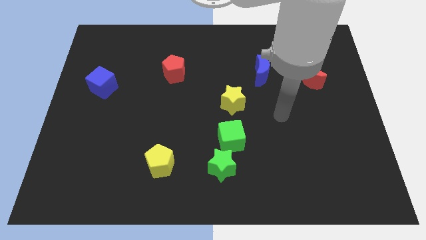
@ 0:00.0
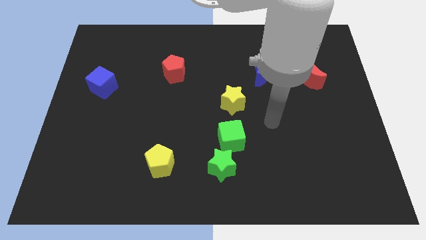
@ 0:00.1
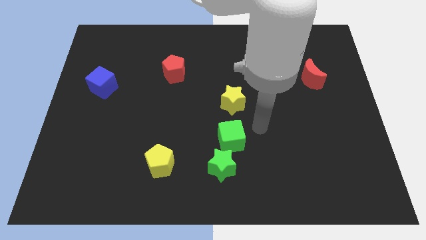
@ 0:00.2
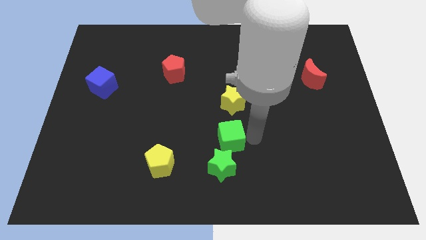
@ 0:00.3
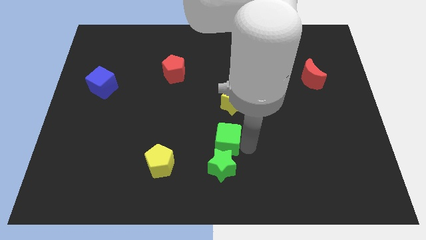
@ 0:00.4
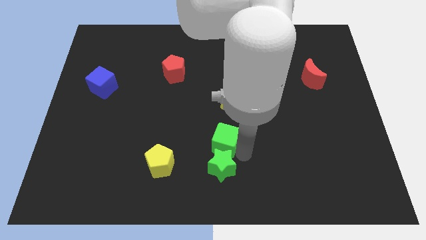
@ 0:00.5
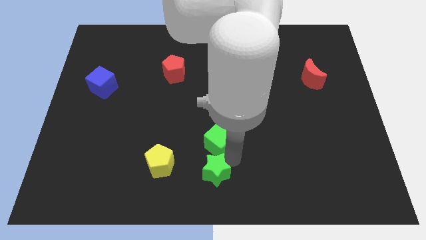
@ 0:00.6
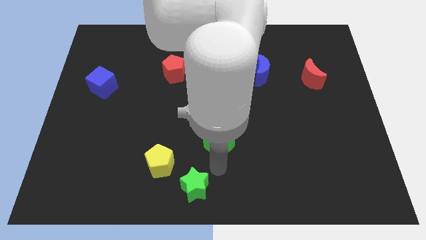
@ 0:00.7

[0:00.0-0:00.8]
move the green cube away from the green star

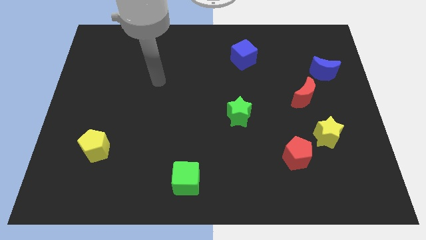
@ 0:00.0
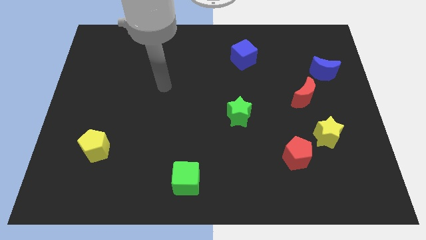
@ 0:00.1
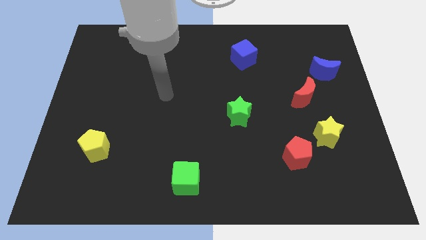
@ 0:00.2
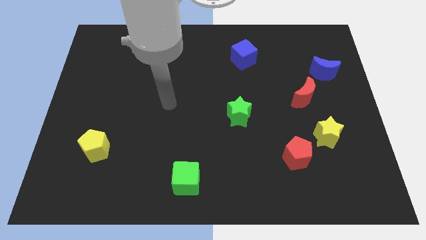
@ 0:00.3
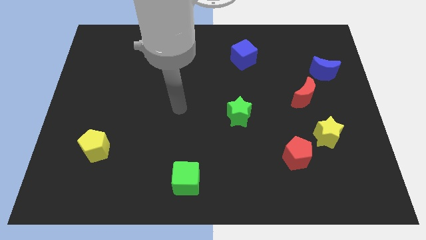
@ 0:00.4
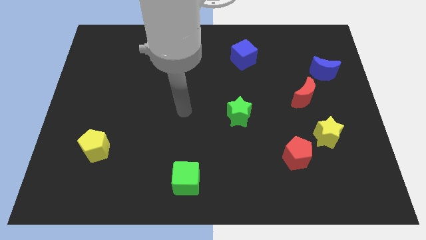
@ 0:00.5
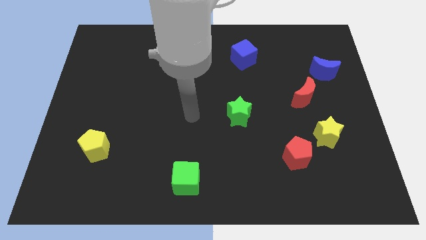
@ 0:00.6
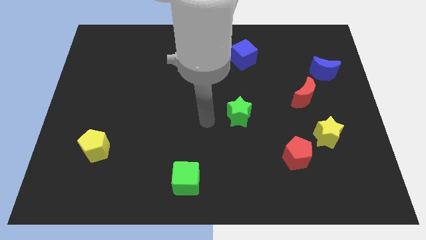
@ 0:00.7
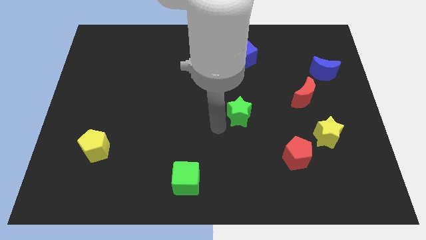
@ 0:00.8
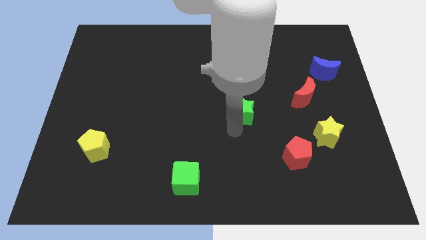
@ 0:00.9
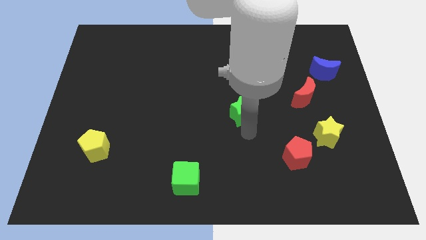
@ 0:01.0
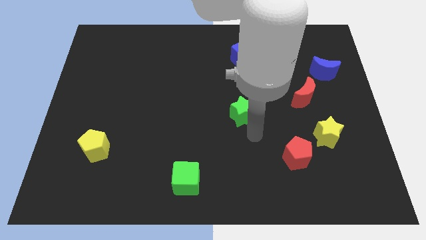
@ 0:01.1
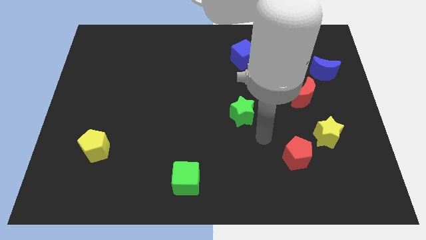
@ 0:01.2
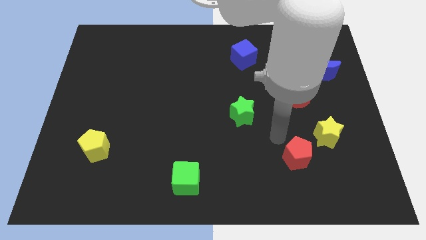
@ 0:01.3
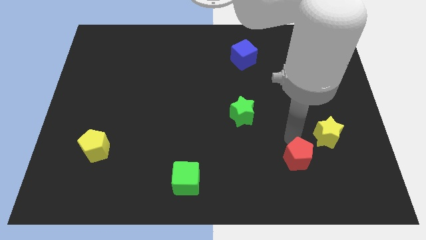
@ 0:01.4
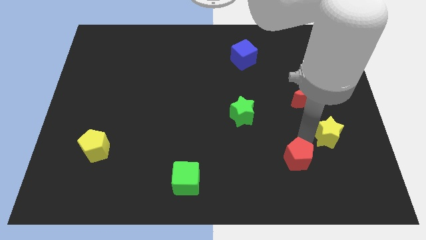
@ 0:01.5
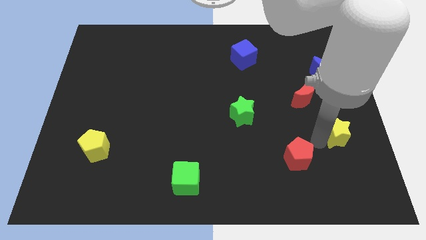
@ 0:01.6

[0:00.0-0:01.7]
pull the red pentagon apart from the yellow star

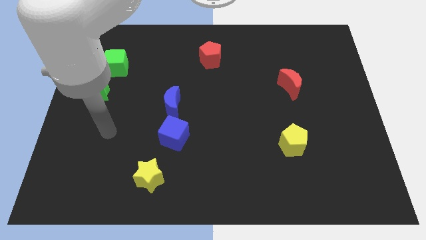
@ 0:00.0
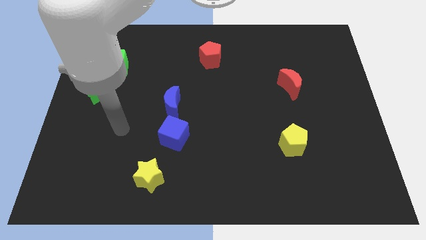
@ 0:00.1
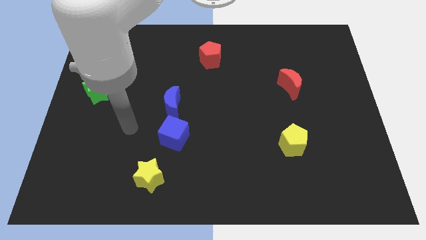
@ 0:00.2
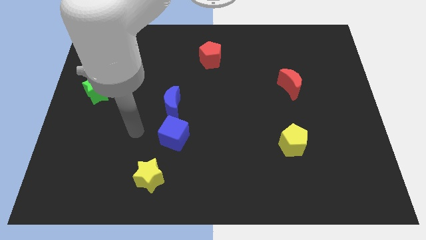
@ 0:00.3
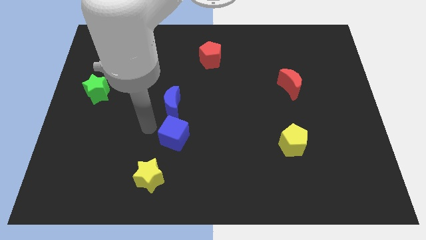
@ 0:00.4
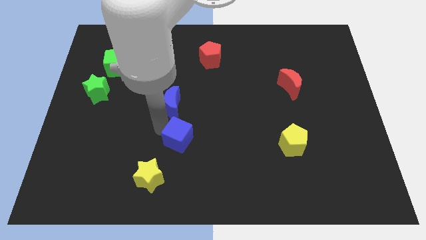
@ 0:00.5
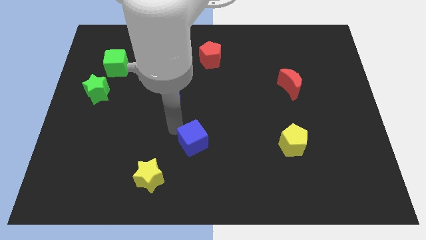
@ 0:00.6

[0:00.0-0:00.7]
separate the blue moon from the blue cube

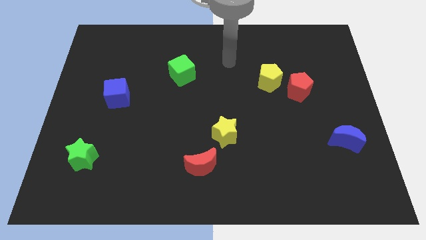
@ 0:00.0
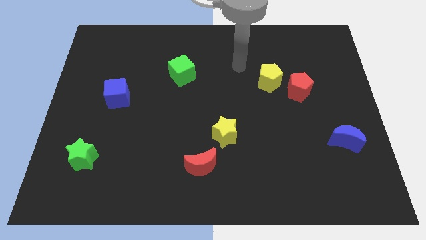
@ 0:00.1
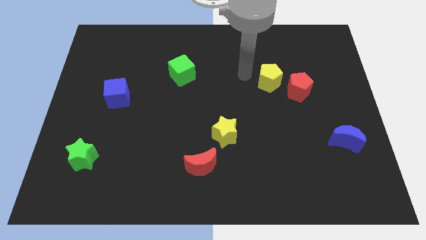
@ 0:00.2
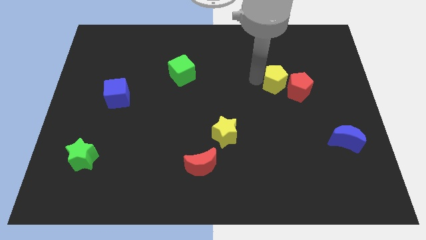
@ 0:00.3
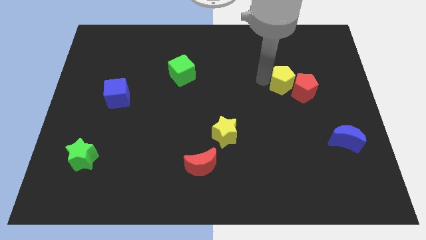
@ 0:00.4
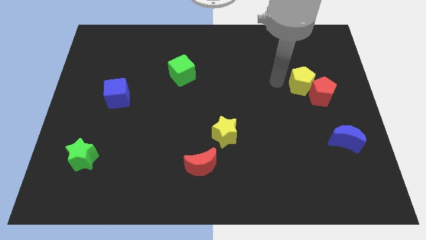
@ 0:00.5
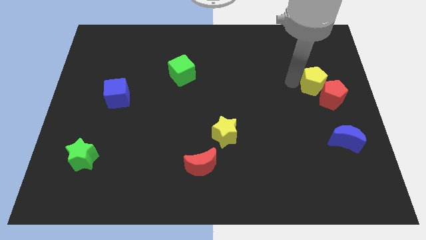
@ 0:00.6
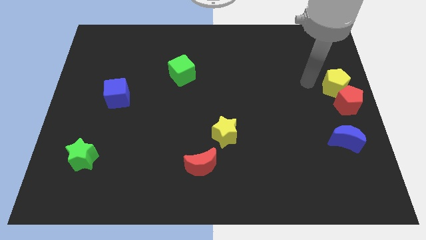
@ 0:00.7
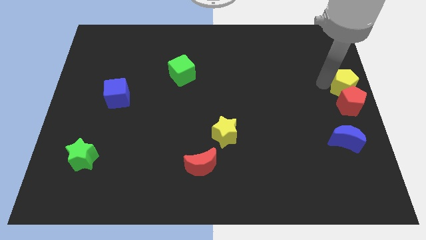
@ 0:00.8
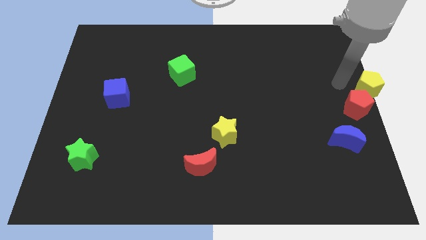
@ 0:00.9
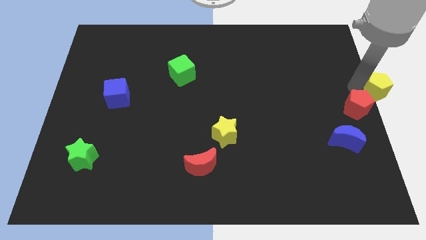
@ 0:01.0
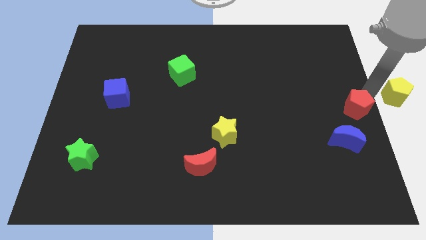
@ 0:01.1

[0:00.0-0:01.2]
move the red pentagon away from the yellow pentagon

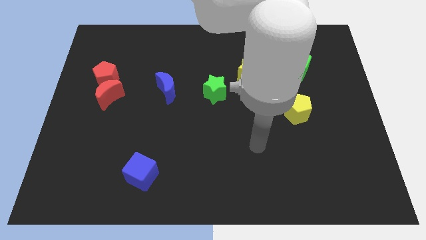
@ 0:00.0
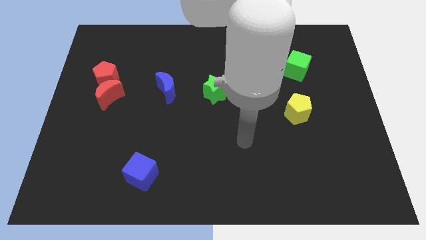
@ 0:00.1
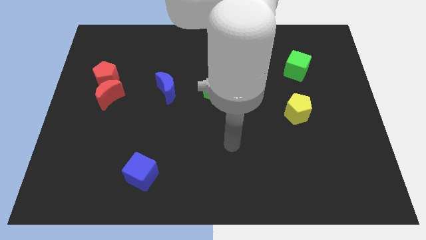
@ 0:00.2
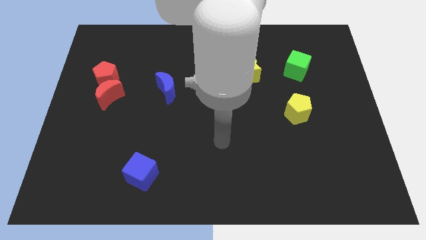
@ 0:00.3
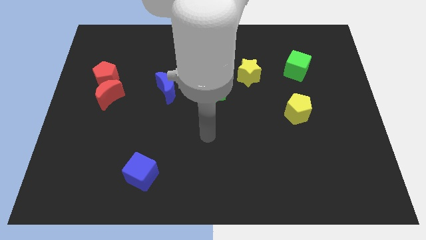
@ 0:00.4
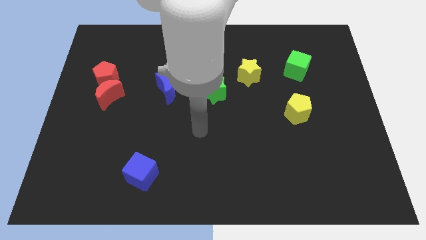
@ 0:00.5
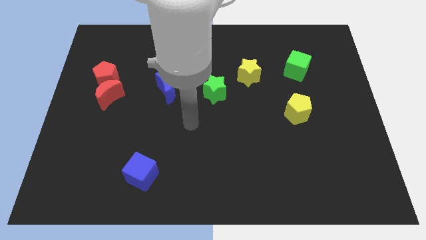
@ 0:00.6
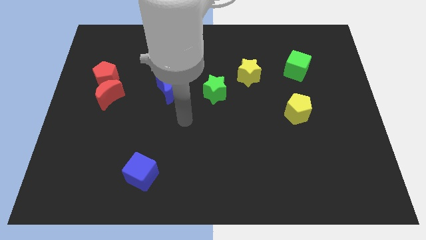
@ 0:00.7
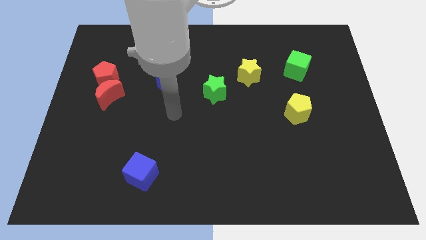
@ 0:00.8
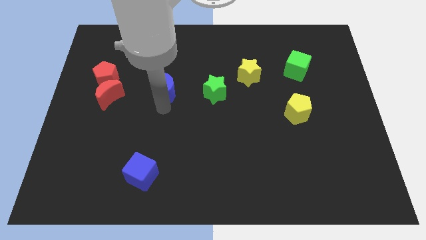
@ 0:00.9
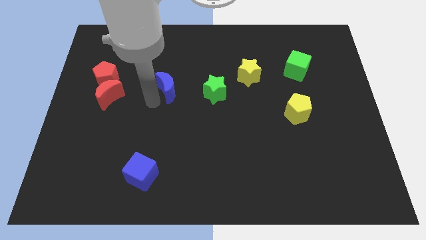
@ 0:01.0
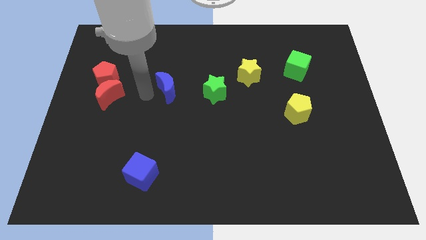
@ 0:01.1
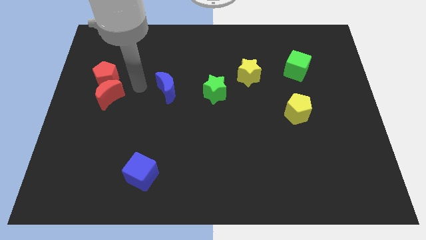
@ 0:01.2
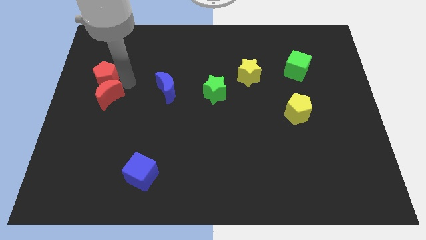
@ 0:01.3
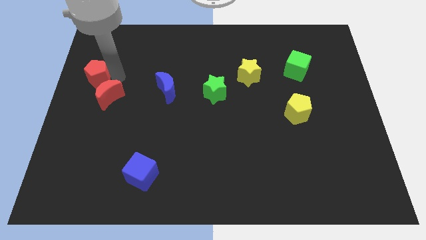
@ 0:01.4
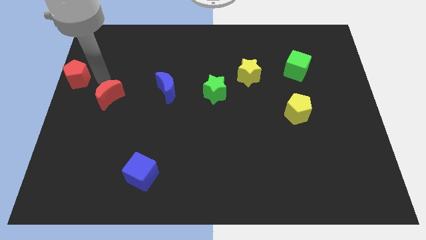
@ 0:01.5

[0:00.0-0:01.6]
pull the red moon apart from the red pentagon

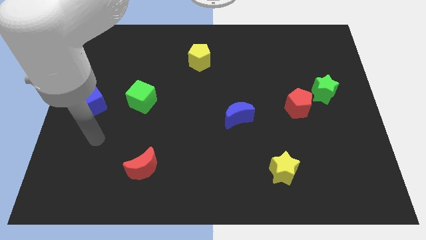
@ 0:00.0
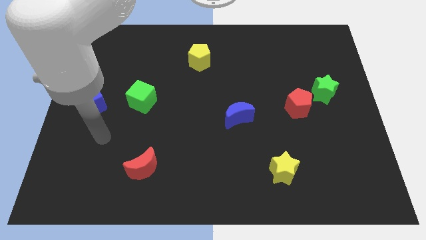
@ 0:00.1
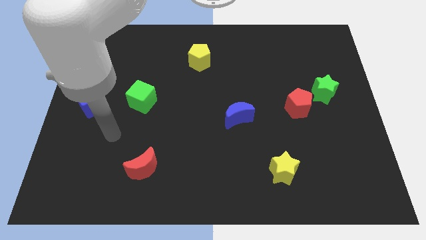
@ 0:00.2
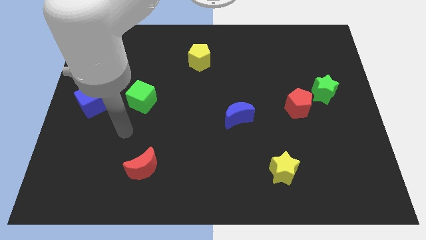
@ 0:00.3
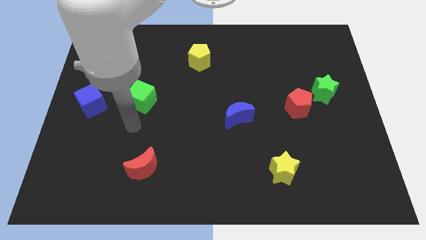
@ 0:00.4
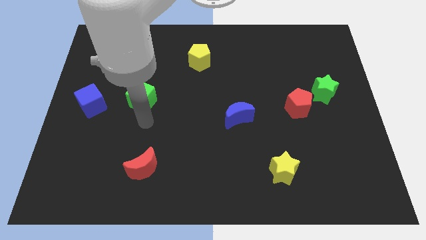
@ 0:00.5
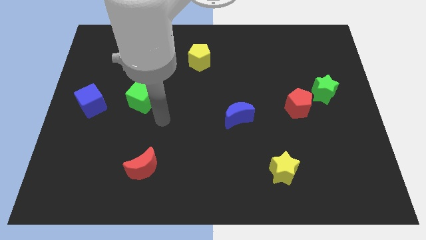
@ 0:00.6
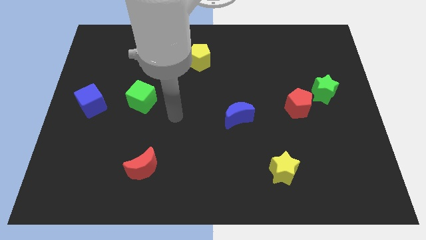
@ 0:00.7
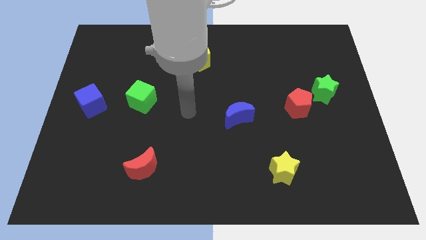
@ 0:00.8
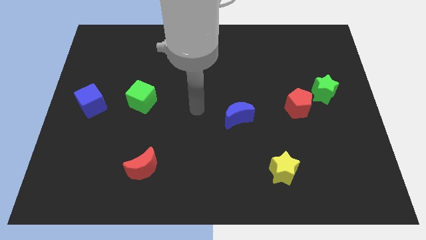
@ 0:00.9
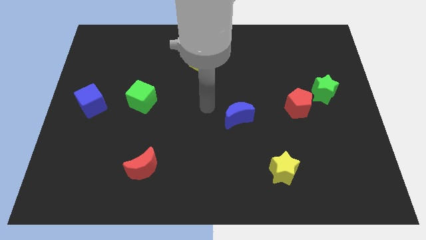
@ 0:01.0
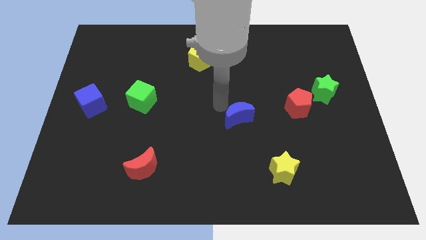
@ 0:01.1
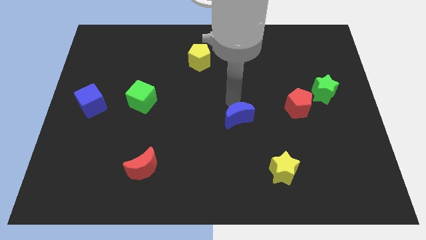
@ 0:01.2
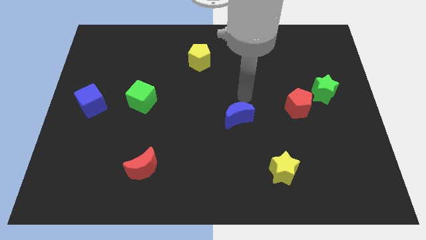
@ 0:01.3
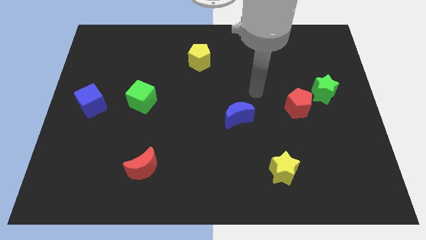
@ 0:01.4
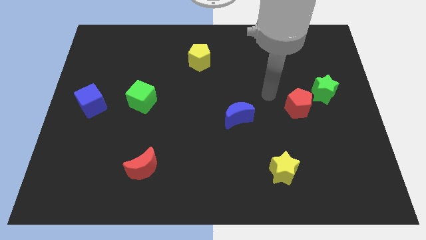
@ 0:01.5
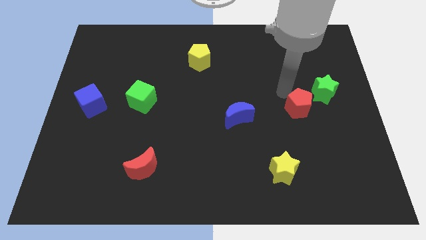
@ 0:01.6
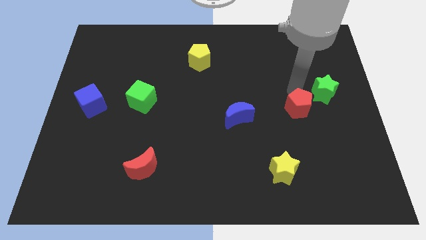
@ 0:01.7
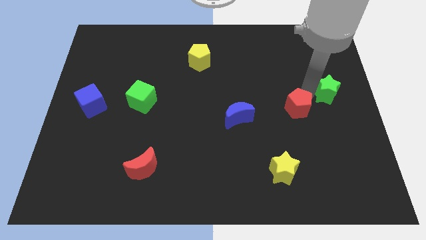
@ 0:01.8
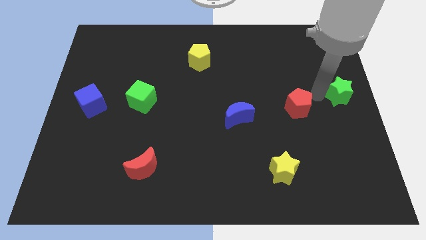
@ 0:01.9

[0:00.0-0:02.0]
separate the red pentagon from the green star

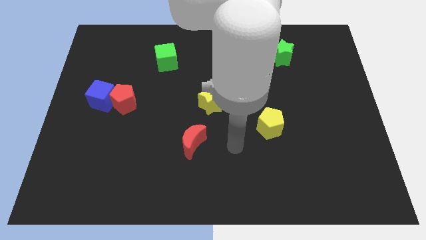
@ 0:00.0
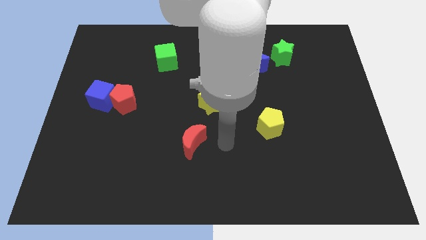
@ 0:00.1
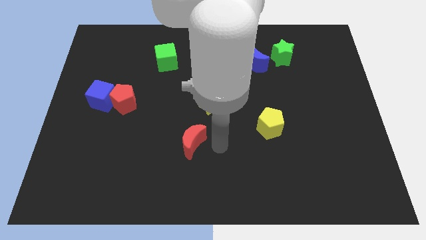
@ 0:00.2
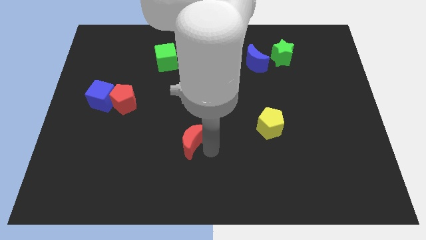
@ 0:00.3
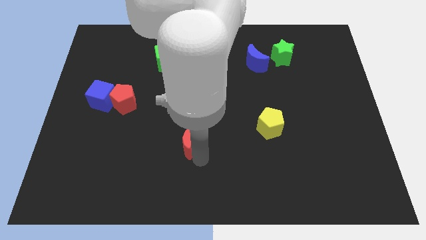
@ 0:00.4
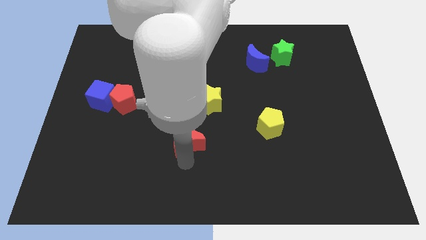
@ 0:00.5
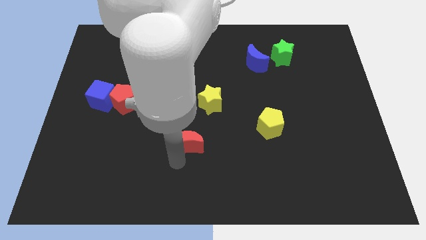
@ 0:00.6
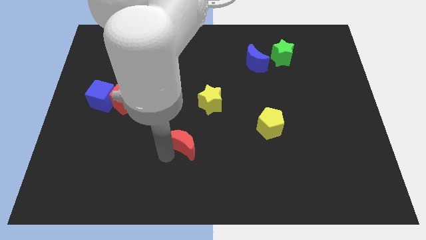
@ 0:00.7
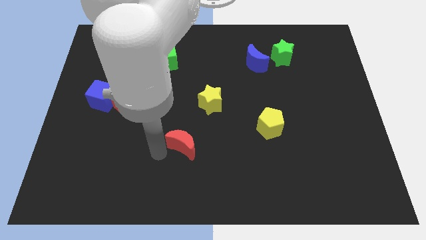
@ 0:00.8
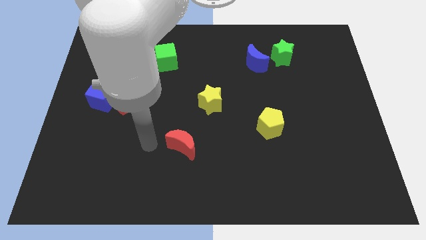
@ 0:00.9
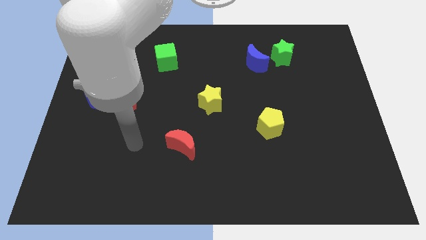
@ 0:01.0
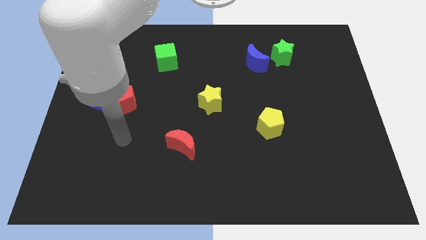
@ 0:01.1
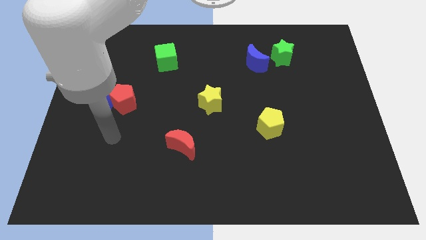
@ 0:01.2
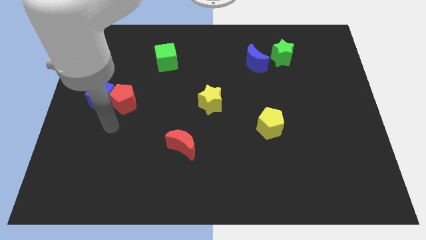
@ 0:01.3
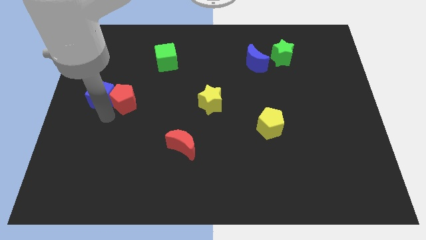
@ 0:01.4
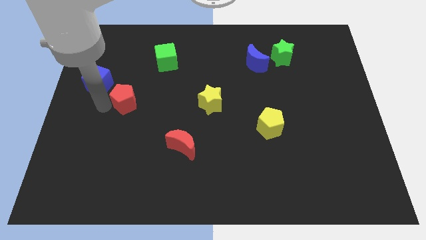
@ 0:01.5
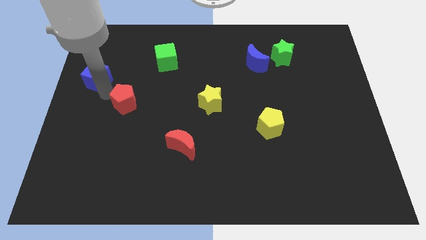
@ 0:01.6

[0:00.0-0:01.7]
move the red pentagon away from the blue cube
